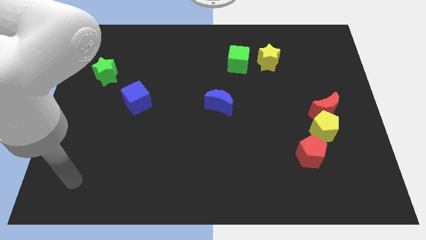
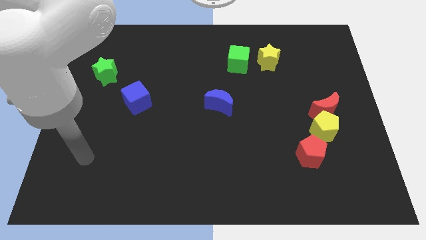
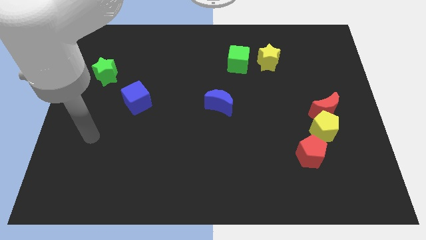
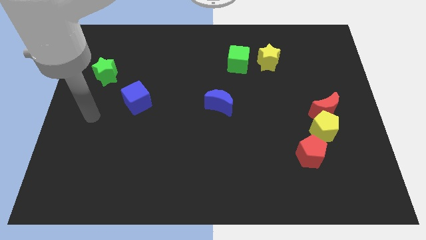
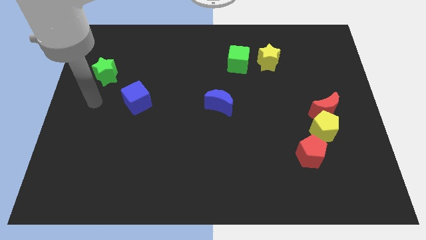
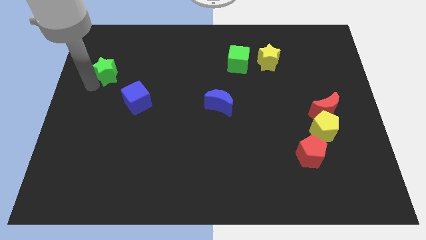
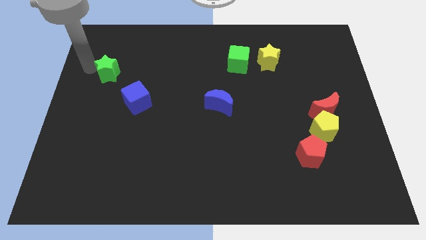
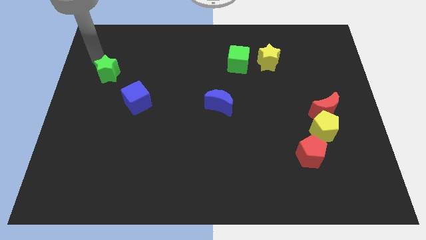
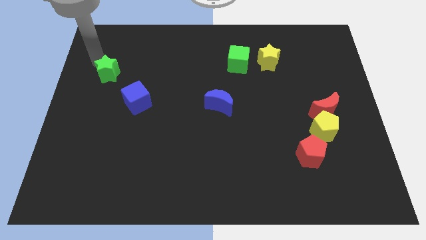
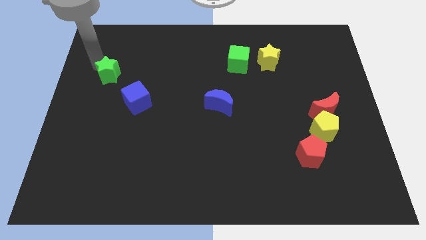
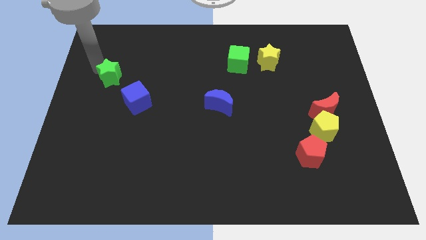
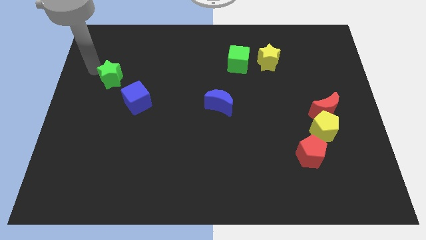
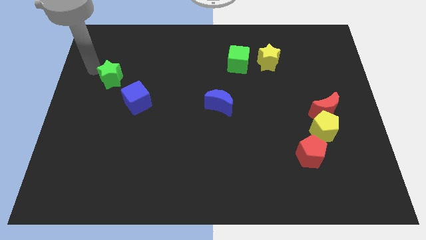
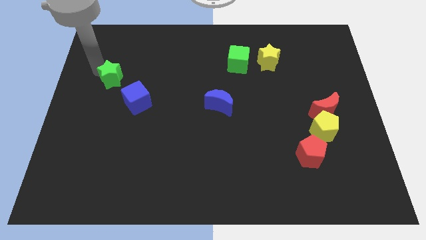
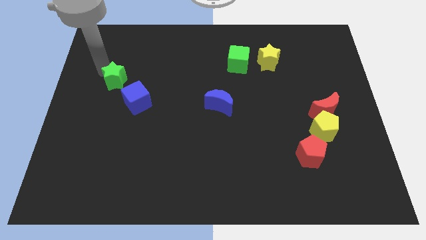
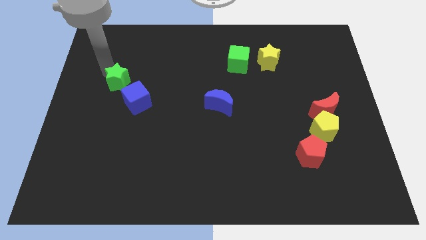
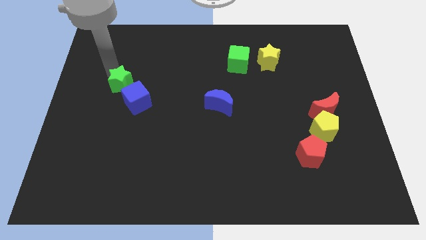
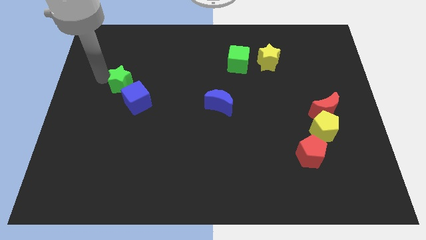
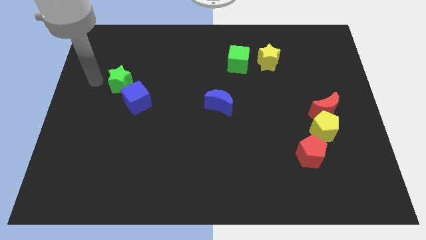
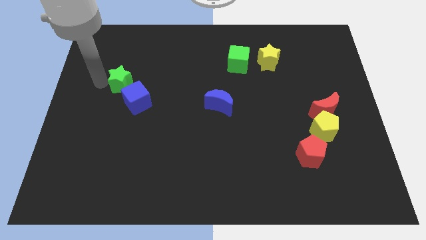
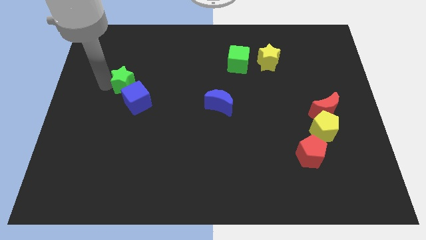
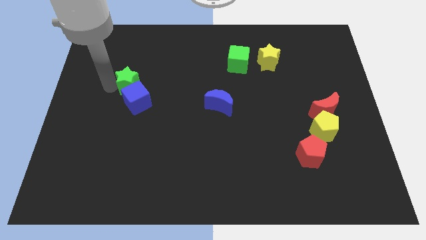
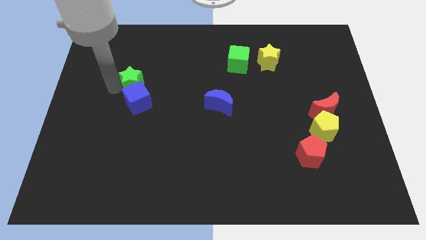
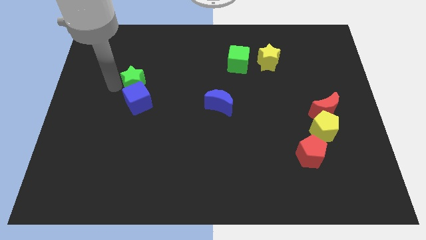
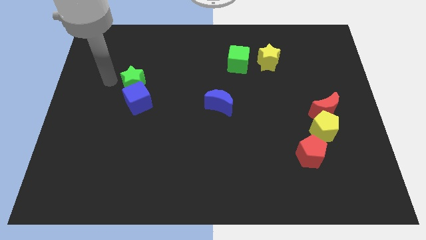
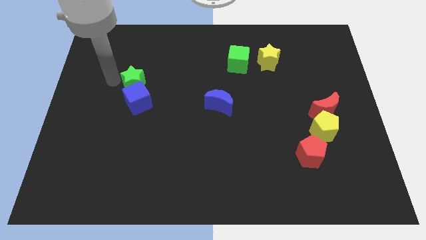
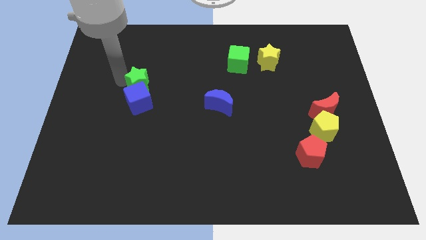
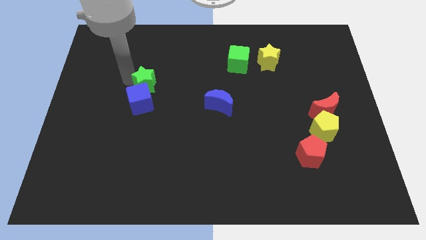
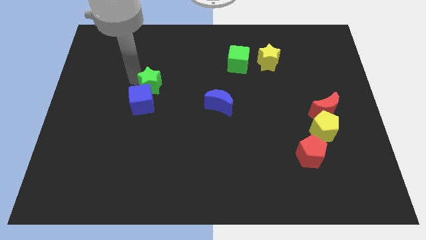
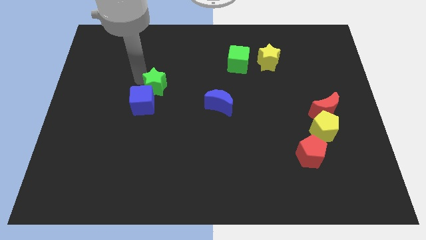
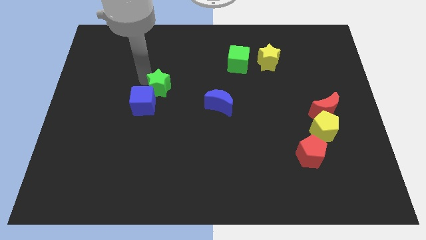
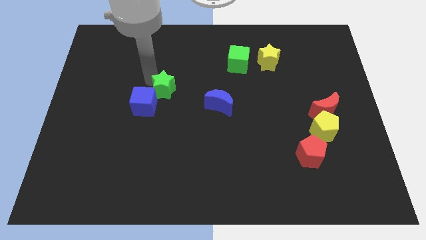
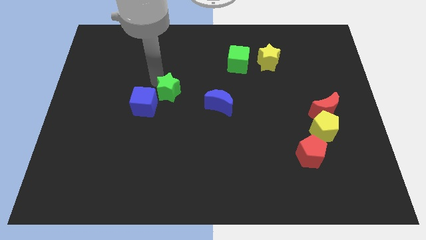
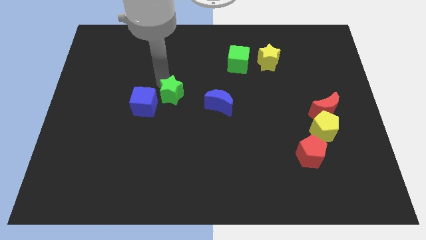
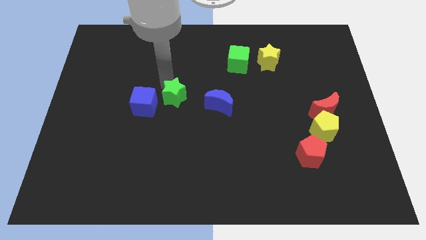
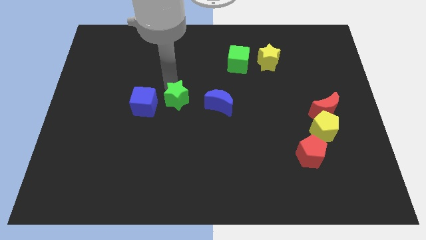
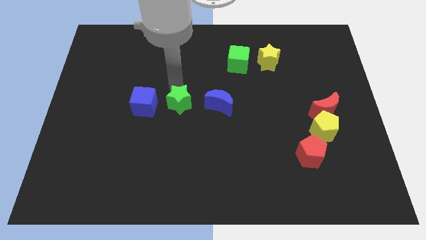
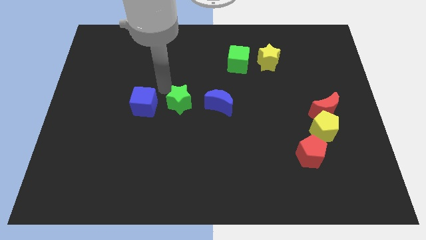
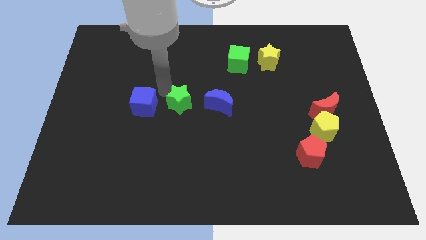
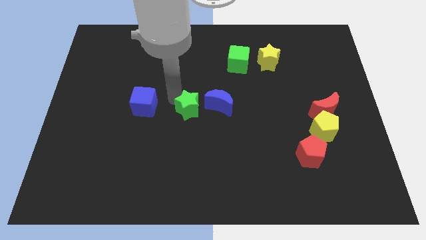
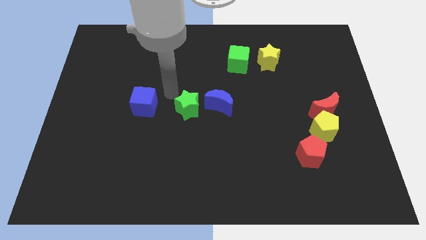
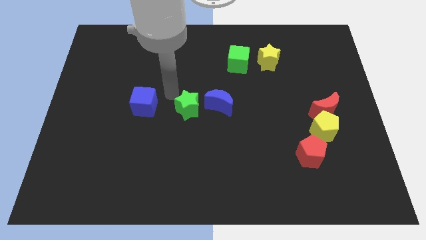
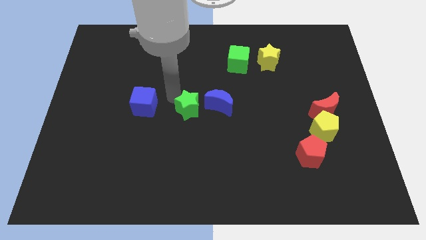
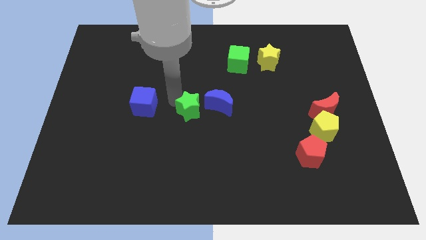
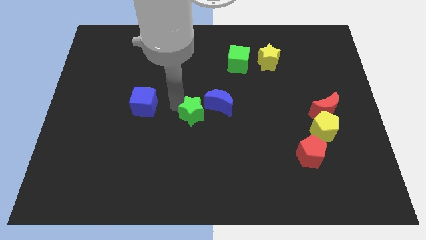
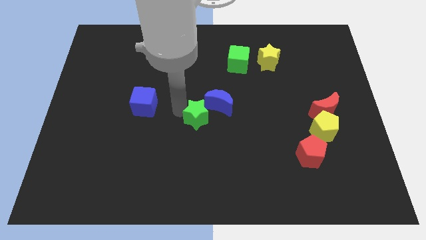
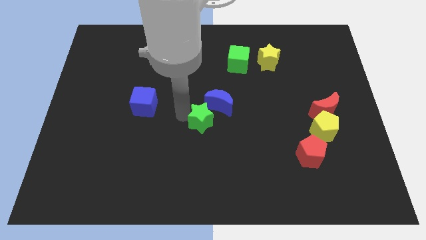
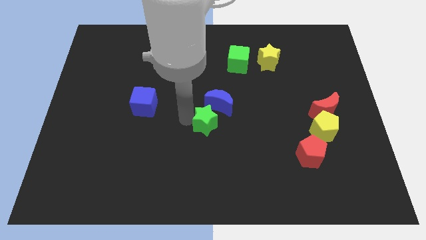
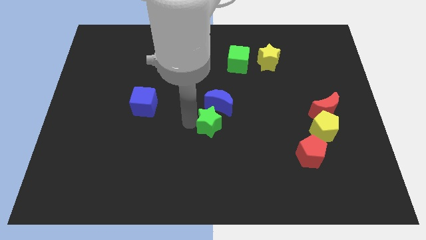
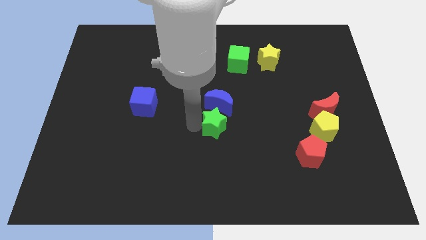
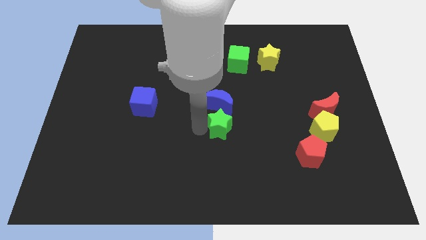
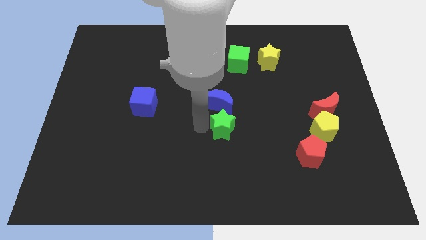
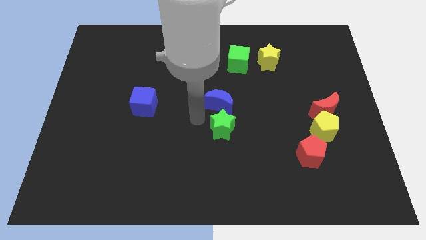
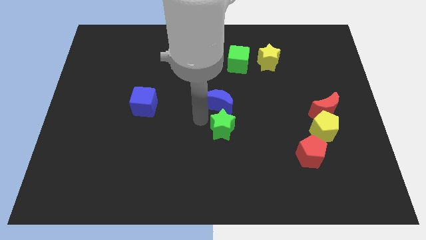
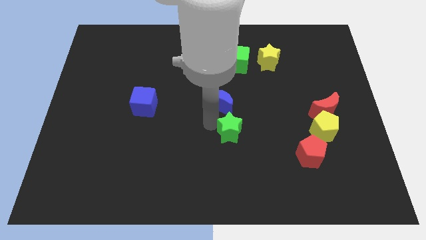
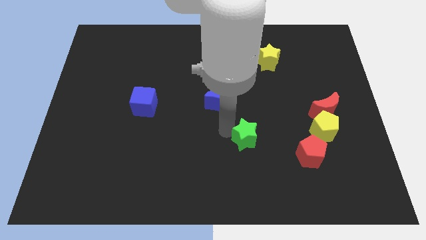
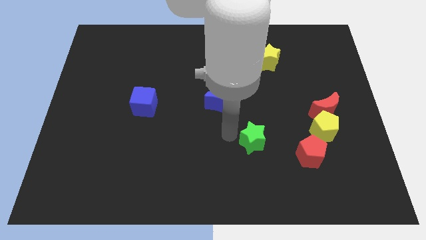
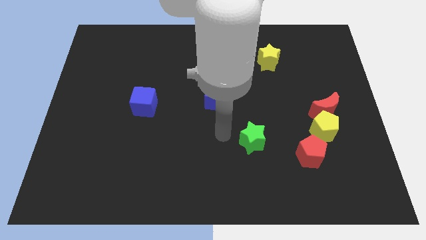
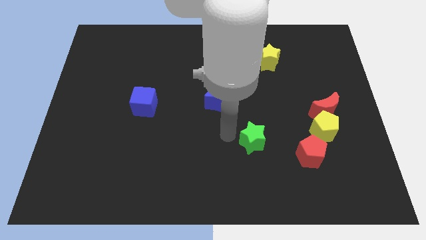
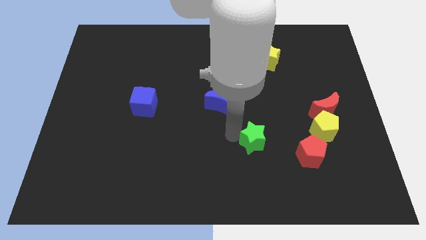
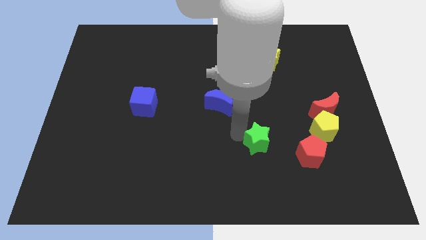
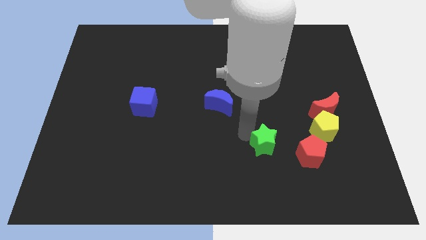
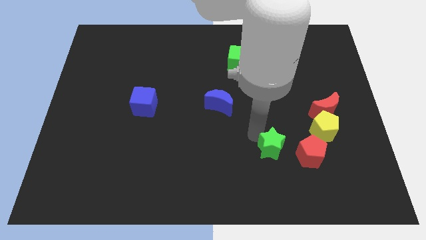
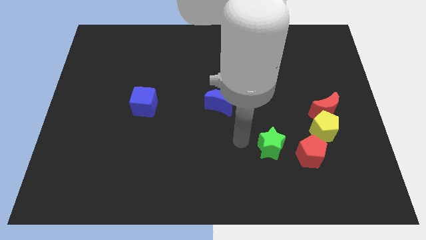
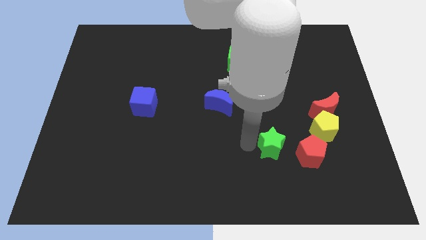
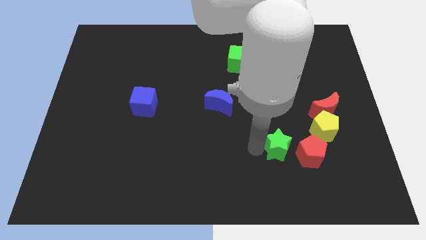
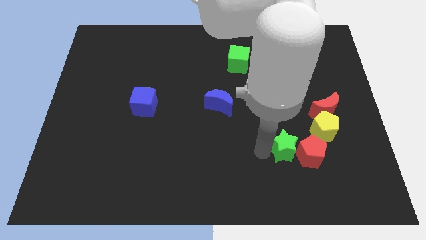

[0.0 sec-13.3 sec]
slide the green star next to the red pentagon

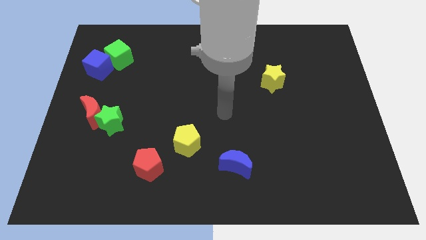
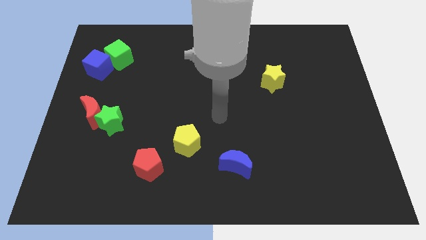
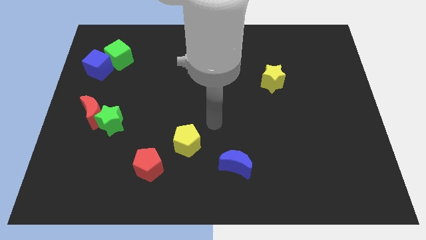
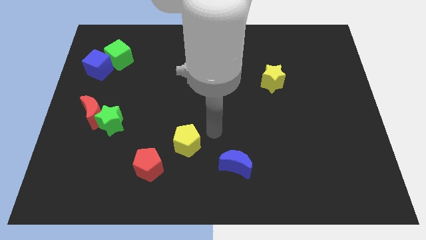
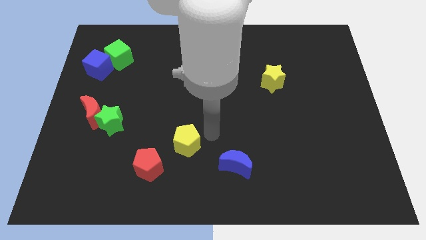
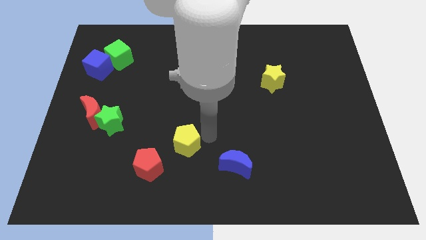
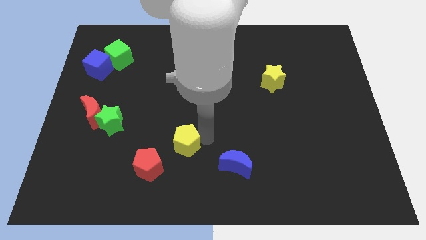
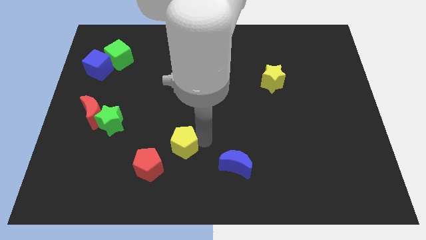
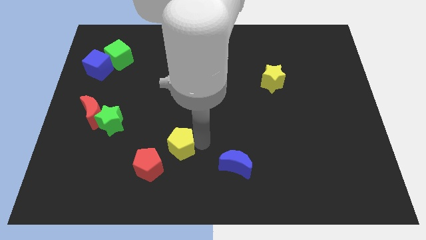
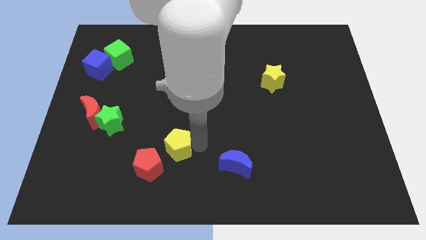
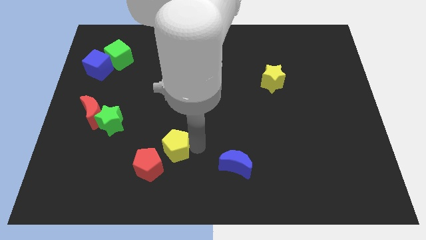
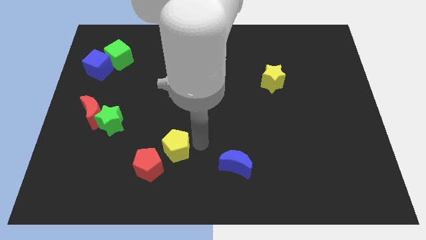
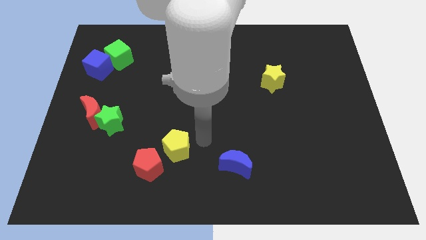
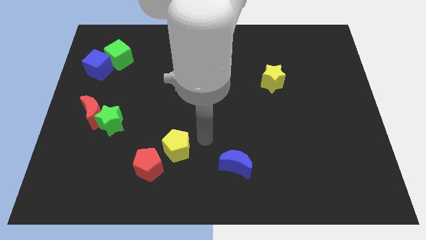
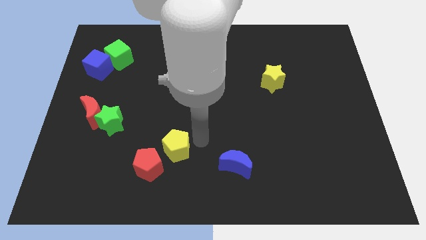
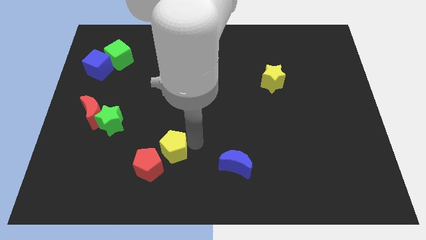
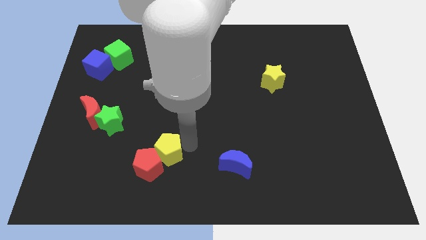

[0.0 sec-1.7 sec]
push the yellow pentagon to the red pentagon
